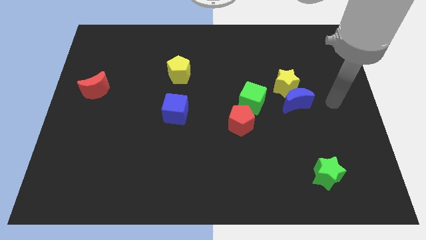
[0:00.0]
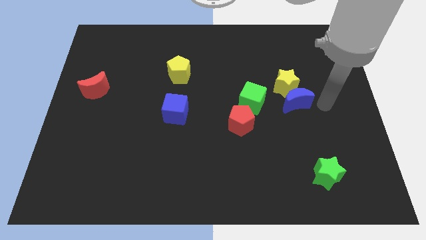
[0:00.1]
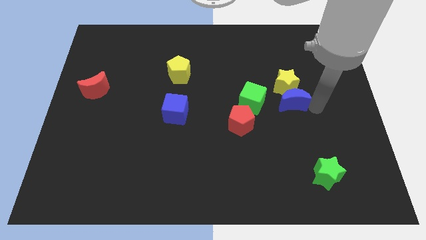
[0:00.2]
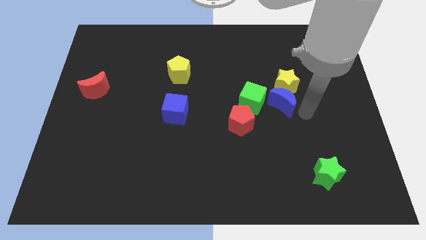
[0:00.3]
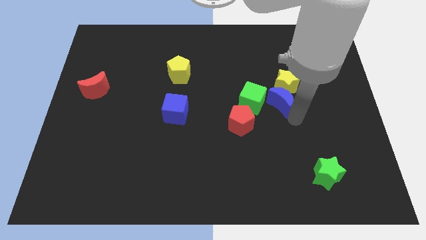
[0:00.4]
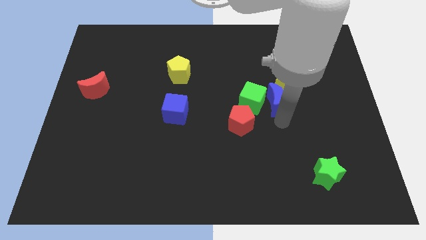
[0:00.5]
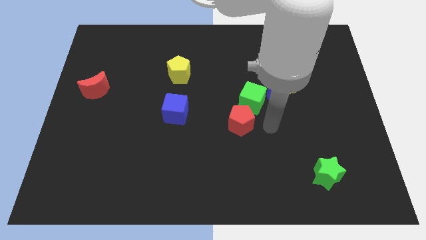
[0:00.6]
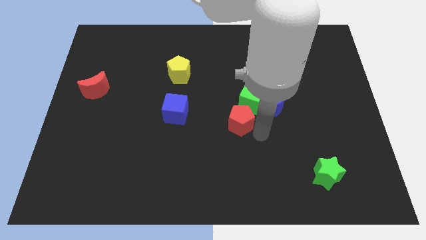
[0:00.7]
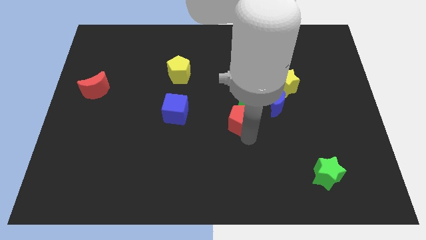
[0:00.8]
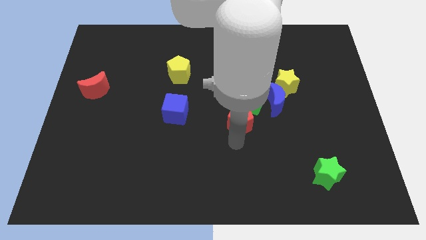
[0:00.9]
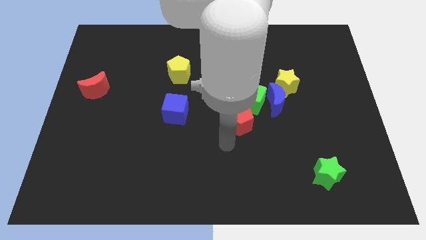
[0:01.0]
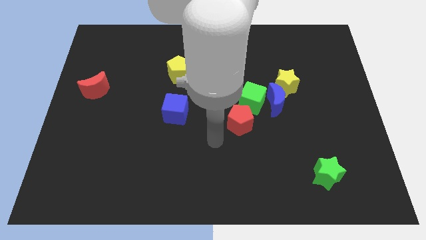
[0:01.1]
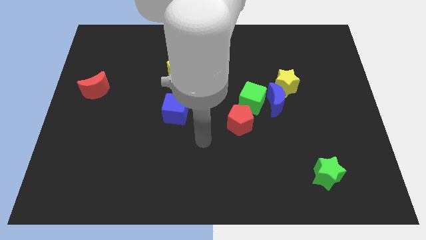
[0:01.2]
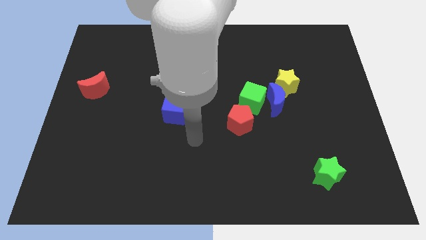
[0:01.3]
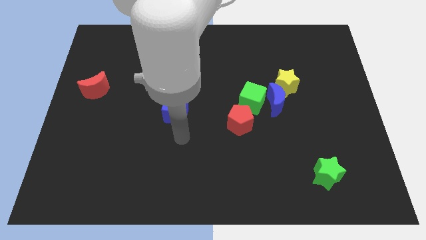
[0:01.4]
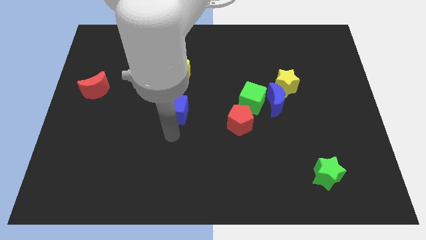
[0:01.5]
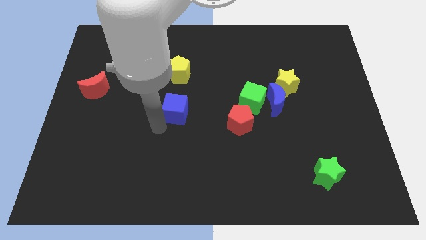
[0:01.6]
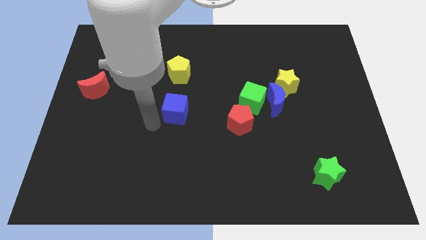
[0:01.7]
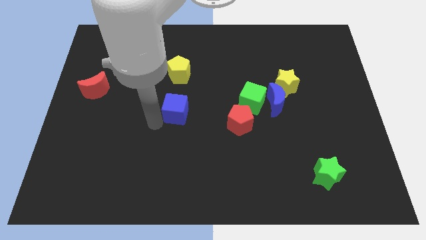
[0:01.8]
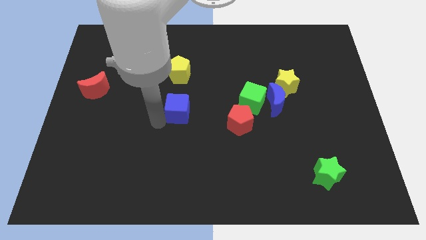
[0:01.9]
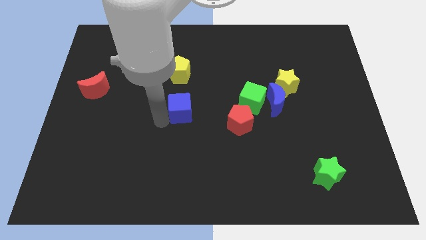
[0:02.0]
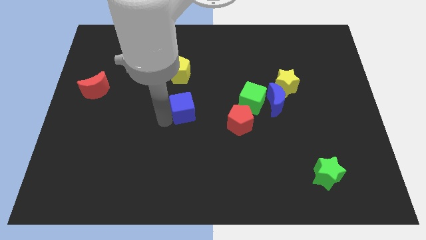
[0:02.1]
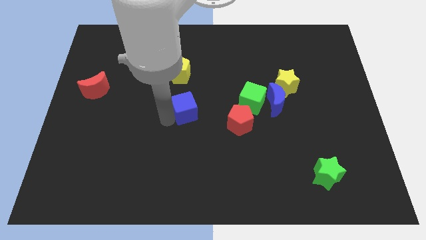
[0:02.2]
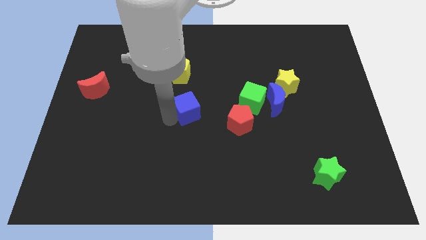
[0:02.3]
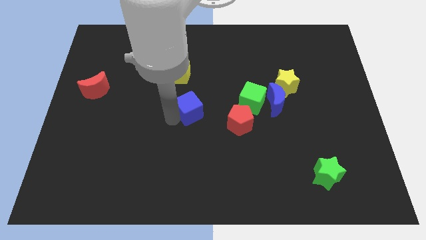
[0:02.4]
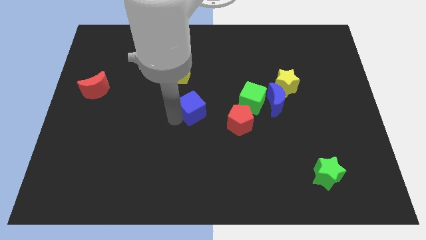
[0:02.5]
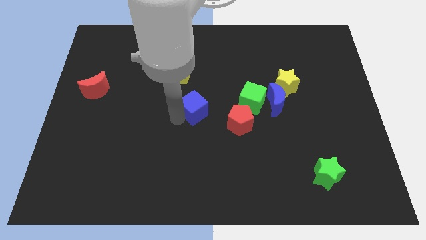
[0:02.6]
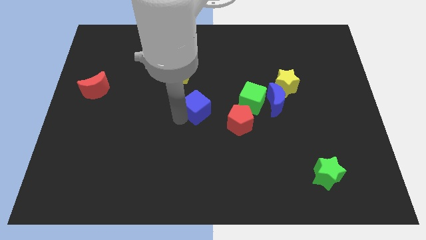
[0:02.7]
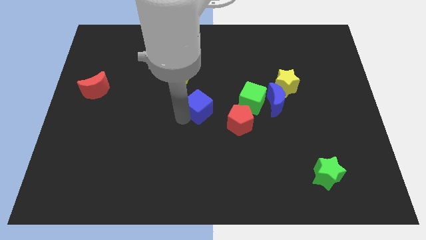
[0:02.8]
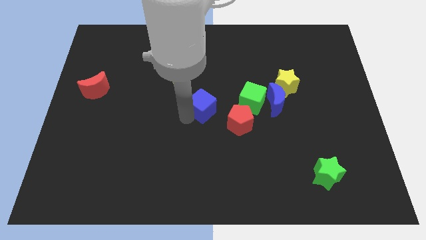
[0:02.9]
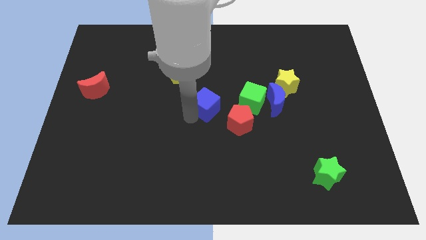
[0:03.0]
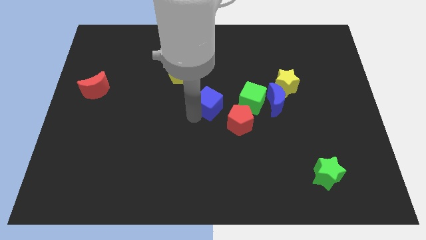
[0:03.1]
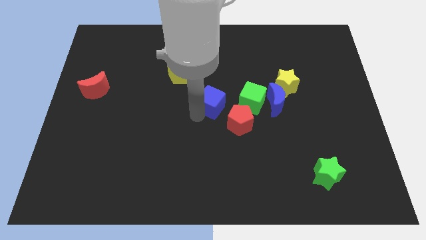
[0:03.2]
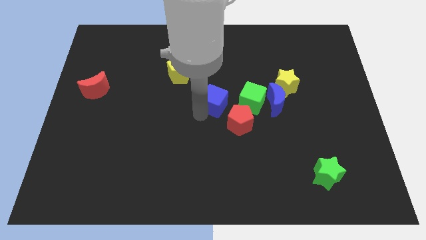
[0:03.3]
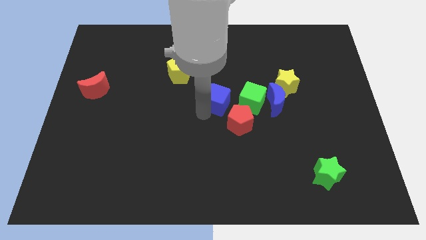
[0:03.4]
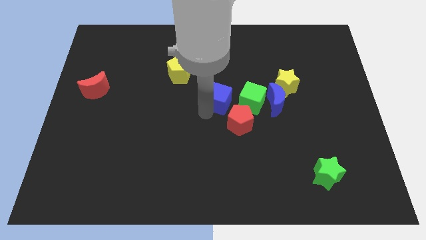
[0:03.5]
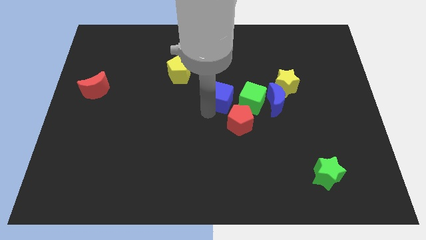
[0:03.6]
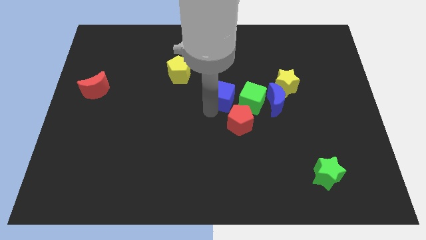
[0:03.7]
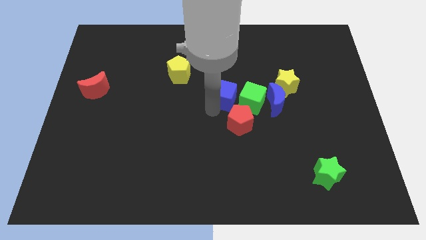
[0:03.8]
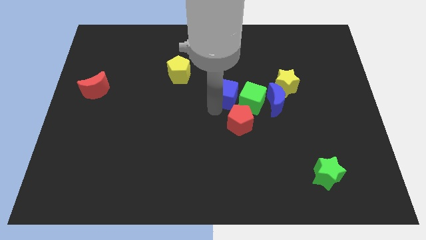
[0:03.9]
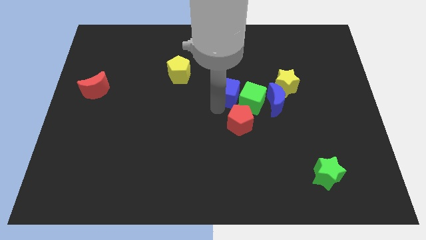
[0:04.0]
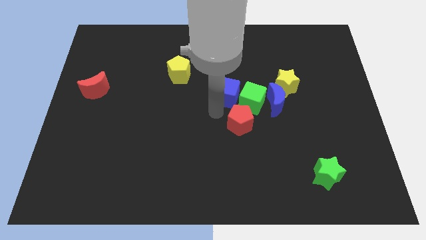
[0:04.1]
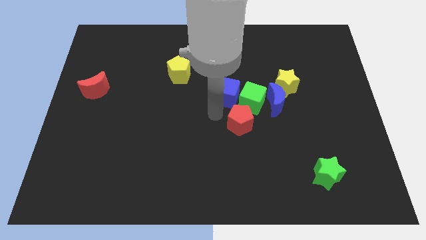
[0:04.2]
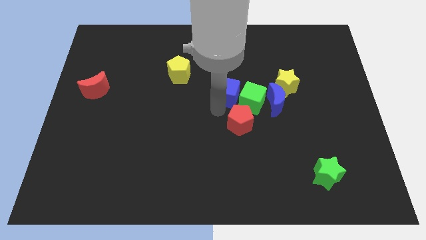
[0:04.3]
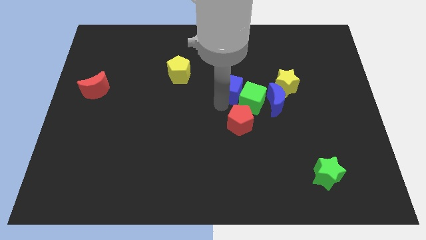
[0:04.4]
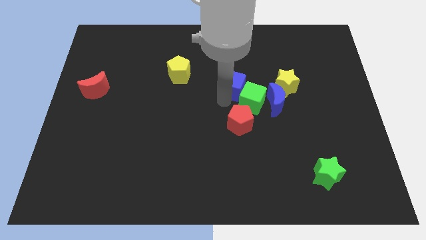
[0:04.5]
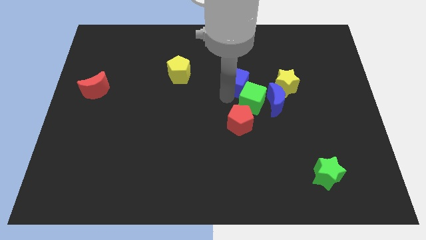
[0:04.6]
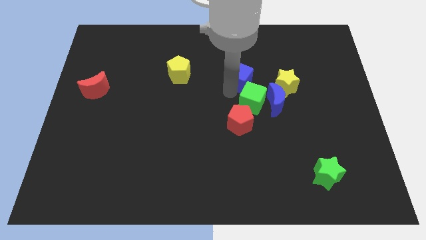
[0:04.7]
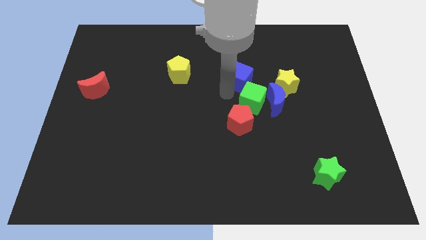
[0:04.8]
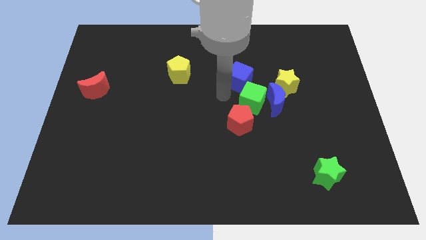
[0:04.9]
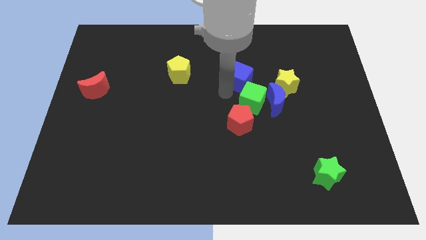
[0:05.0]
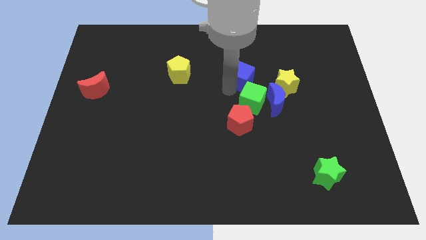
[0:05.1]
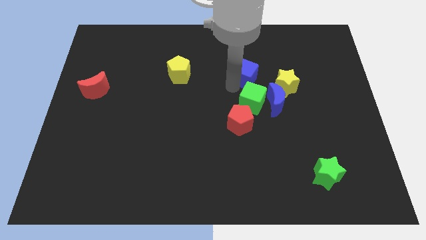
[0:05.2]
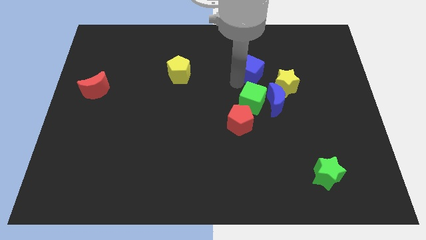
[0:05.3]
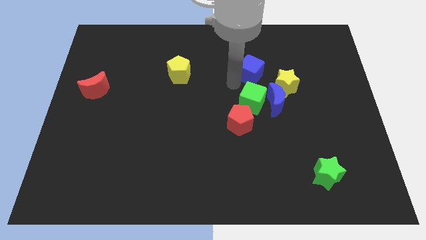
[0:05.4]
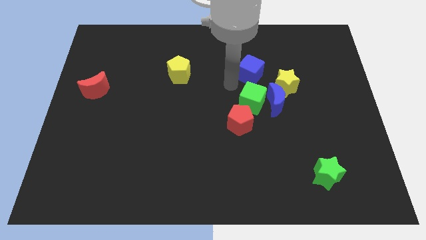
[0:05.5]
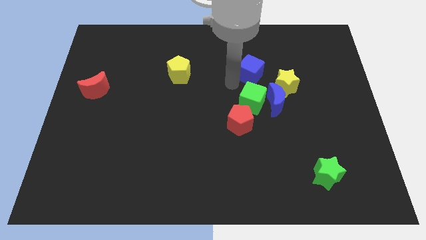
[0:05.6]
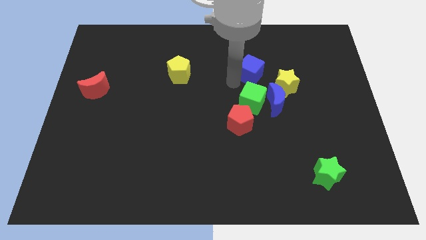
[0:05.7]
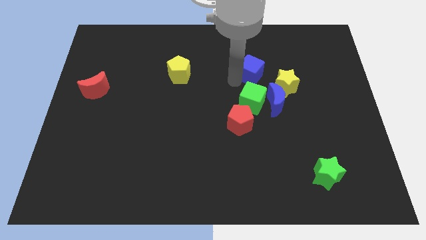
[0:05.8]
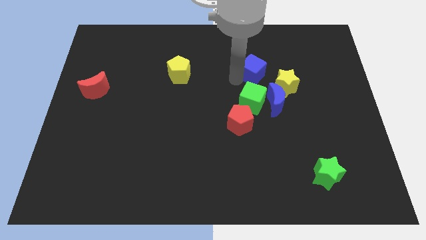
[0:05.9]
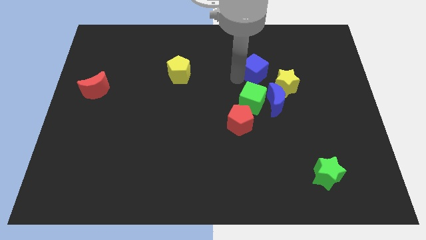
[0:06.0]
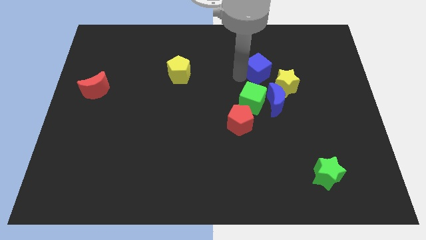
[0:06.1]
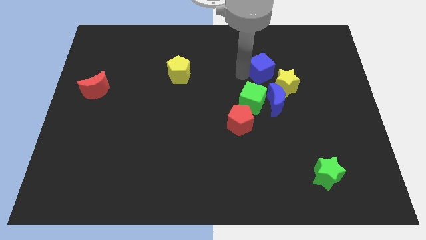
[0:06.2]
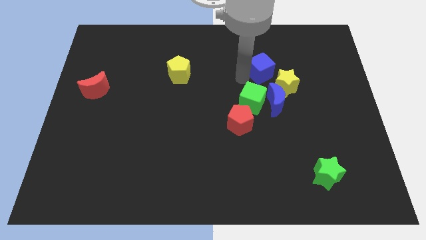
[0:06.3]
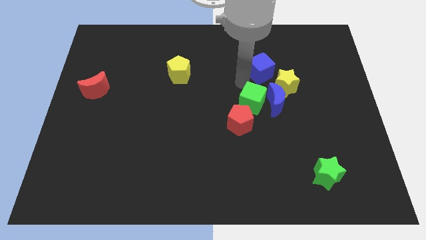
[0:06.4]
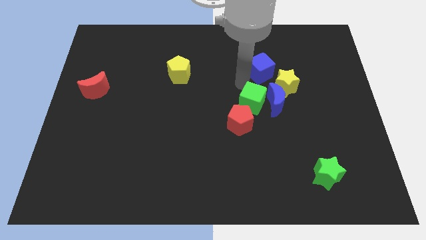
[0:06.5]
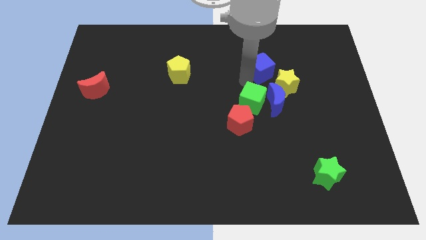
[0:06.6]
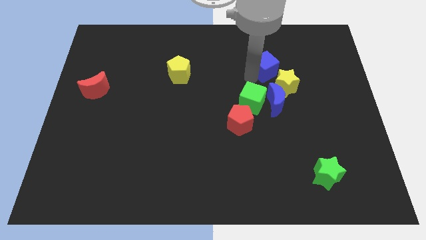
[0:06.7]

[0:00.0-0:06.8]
move the blue cube above the yellow star

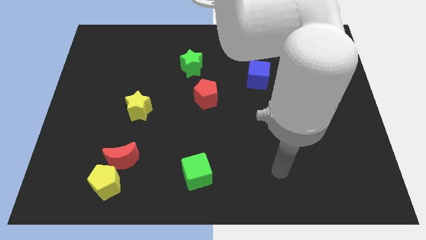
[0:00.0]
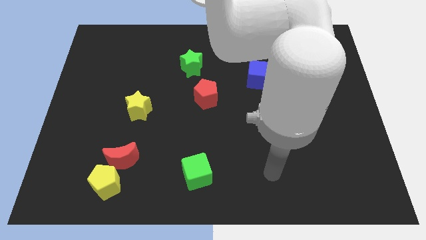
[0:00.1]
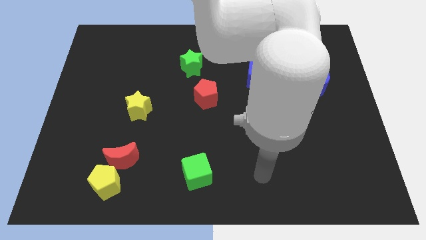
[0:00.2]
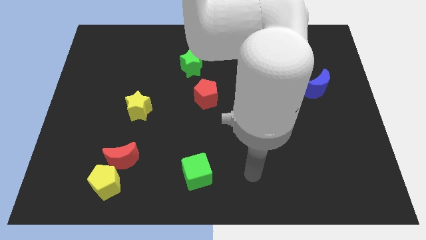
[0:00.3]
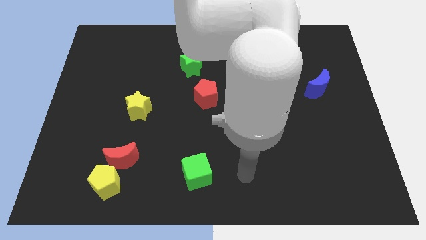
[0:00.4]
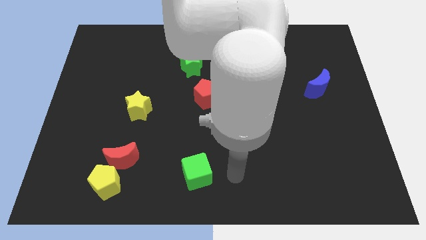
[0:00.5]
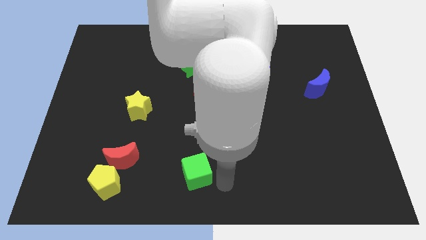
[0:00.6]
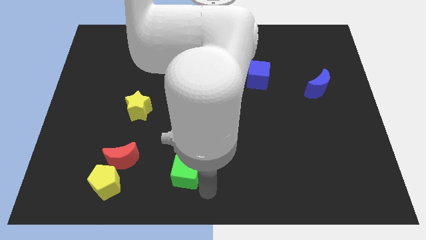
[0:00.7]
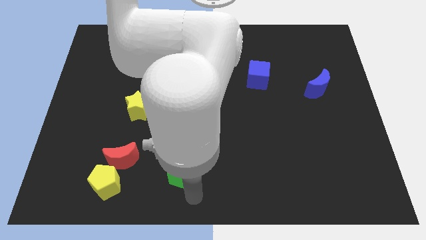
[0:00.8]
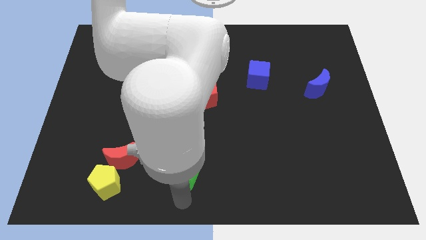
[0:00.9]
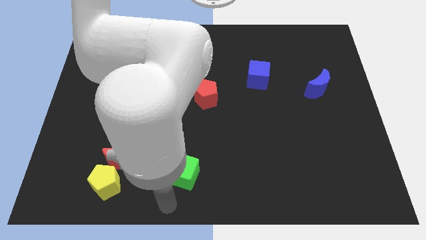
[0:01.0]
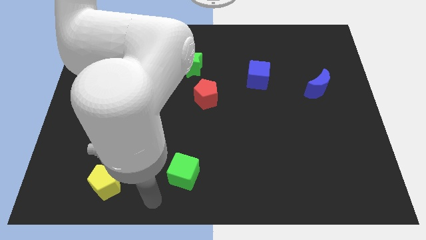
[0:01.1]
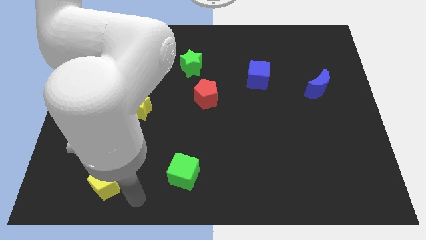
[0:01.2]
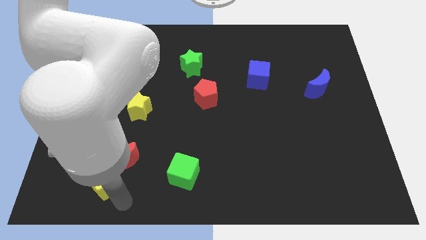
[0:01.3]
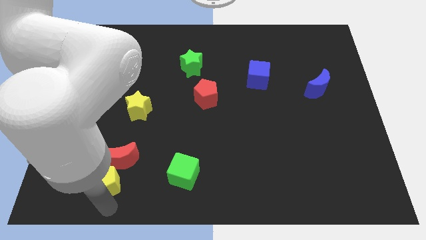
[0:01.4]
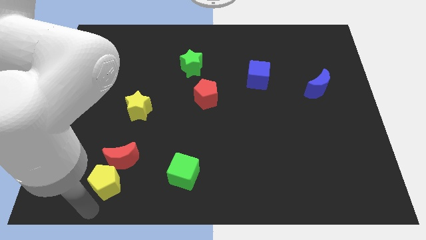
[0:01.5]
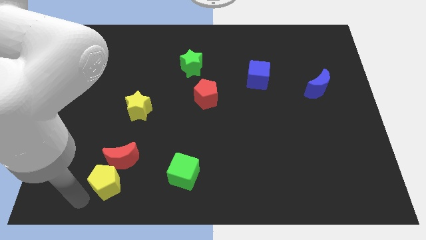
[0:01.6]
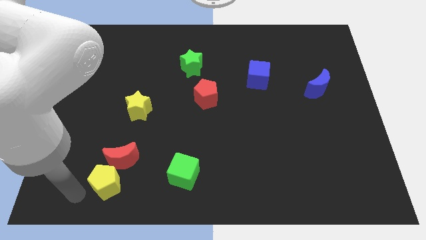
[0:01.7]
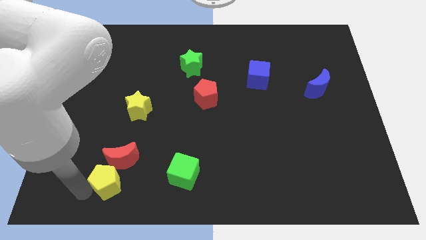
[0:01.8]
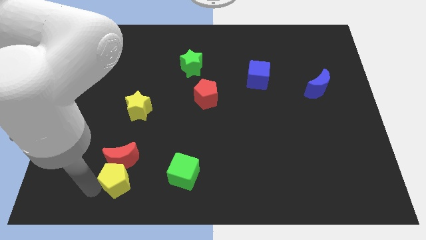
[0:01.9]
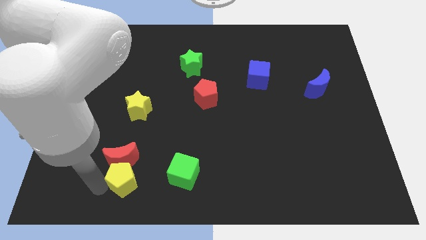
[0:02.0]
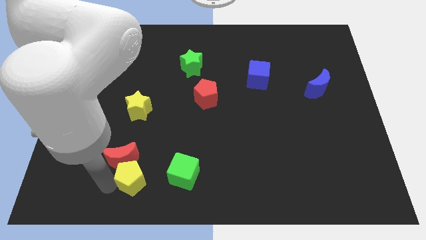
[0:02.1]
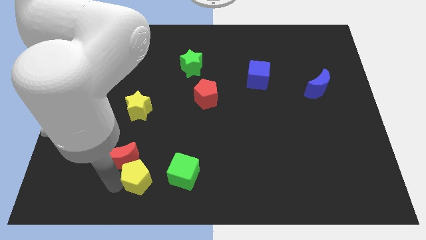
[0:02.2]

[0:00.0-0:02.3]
push the yellow pentagon to the right of the red moon
